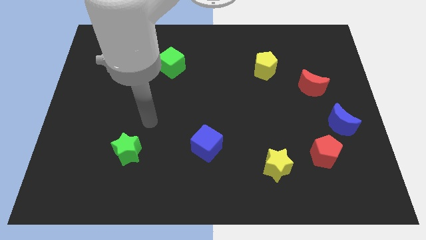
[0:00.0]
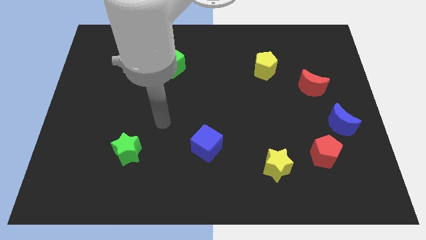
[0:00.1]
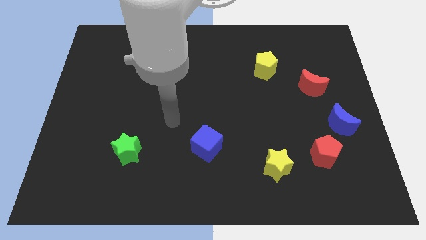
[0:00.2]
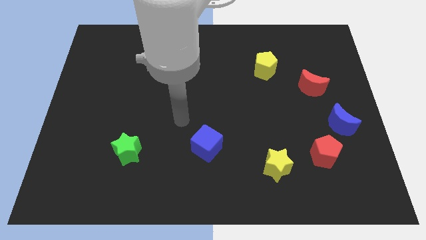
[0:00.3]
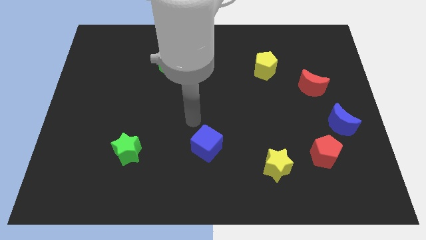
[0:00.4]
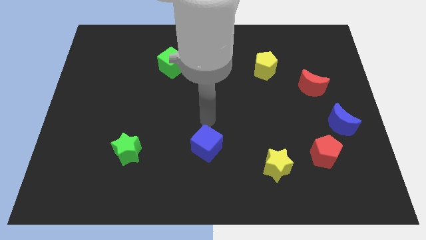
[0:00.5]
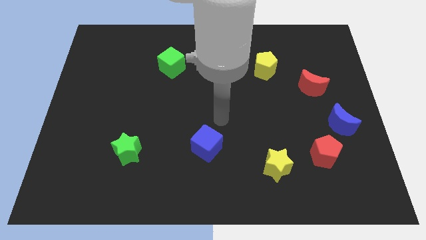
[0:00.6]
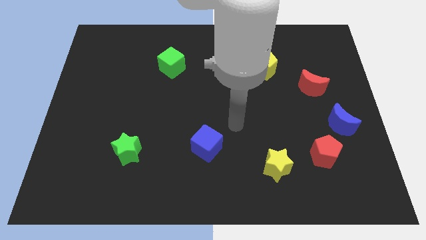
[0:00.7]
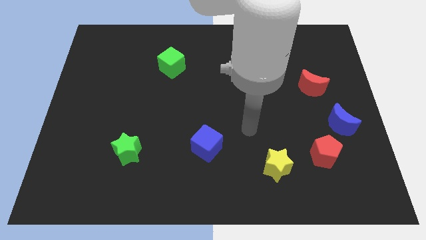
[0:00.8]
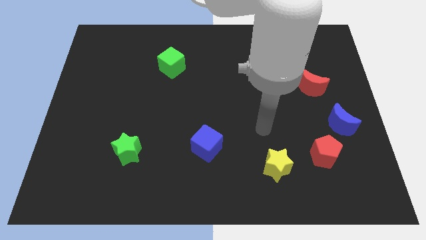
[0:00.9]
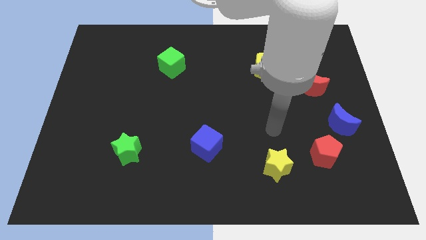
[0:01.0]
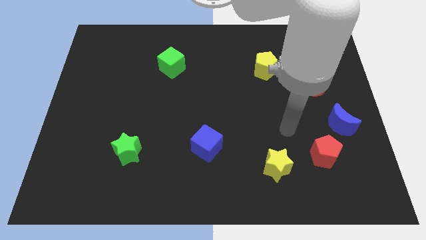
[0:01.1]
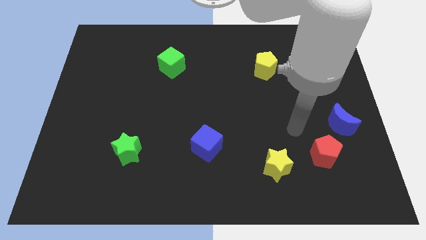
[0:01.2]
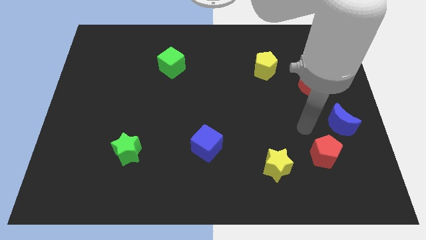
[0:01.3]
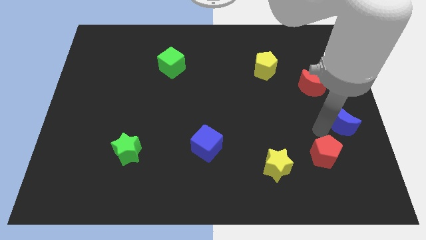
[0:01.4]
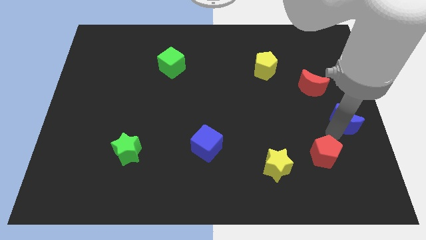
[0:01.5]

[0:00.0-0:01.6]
separate the red pentagon from the blue moon

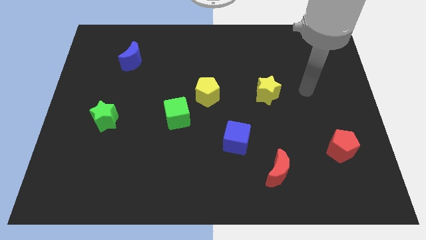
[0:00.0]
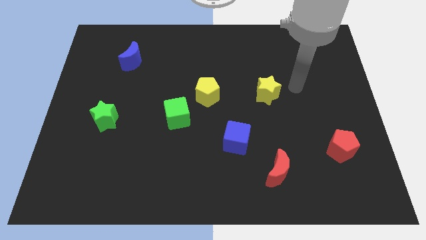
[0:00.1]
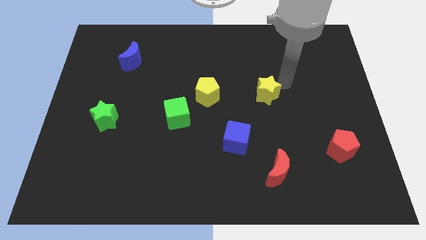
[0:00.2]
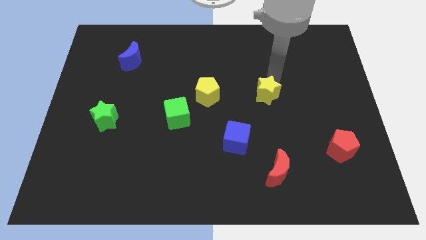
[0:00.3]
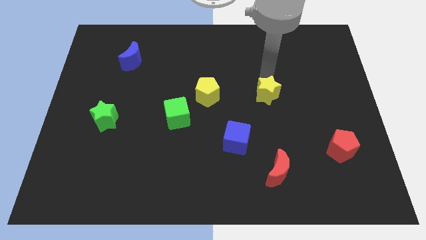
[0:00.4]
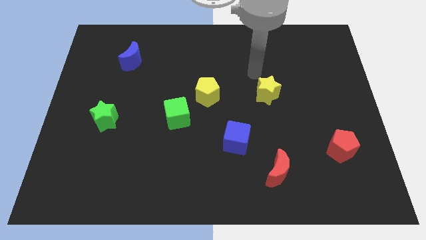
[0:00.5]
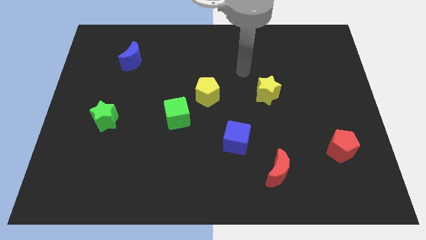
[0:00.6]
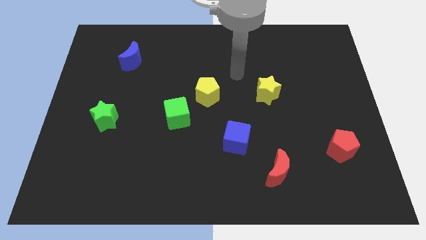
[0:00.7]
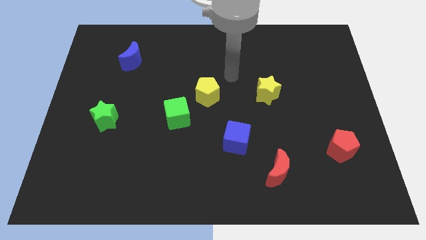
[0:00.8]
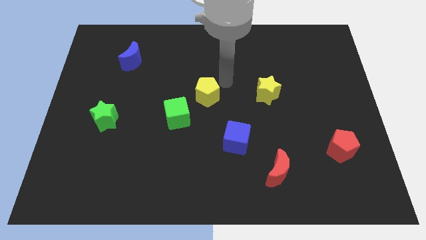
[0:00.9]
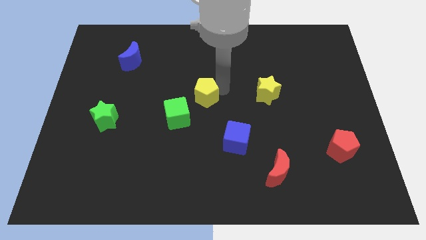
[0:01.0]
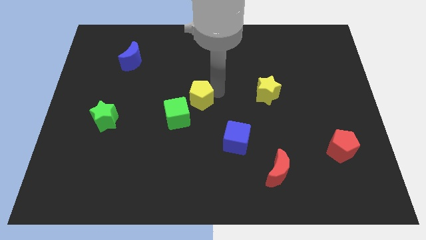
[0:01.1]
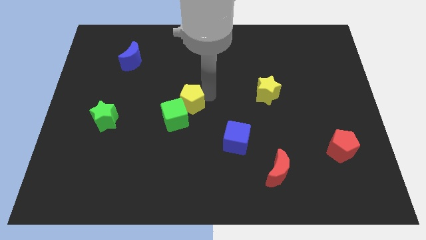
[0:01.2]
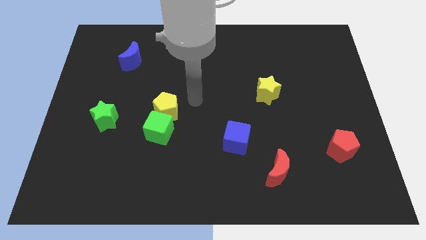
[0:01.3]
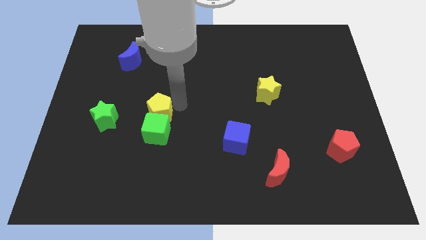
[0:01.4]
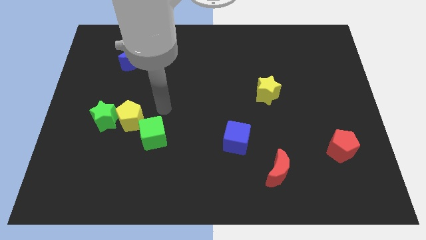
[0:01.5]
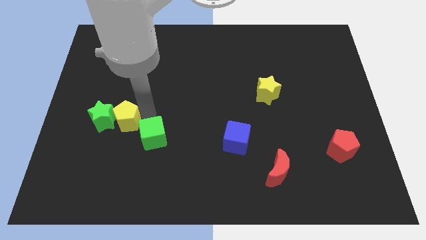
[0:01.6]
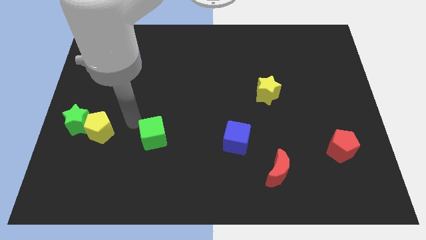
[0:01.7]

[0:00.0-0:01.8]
separate the green cube from the yellow pentagon

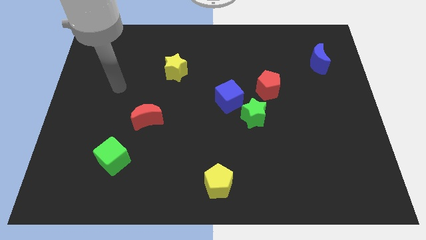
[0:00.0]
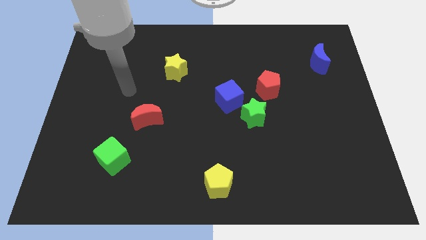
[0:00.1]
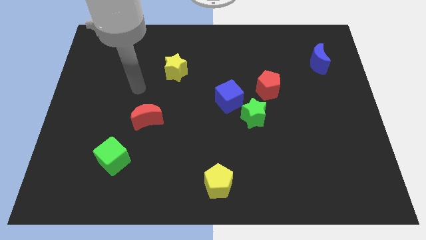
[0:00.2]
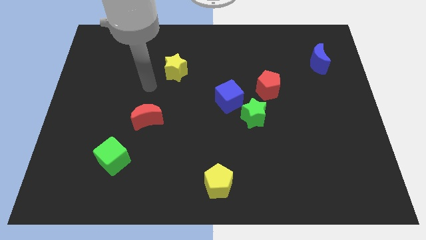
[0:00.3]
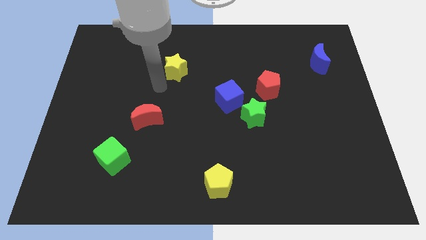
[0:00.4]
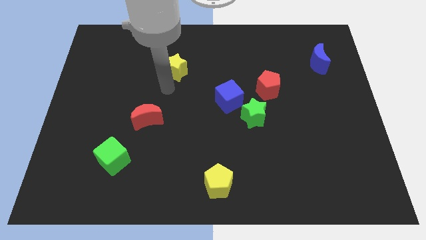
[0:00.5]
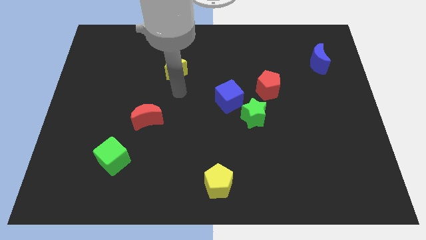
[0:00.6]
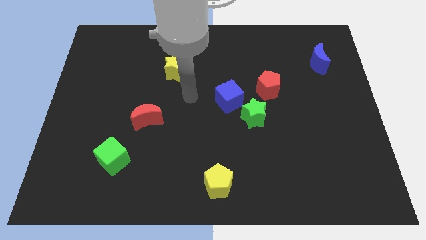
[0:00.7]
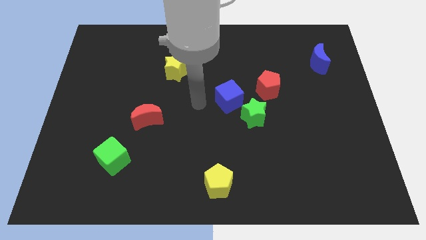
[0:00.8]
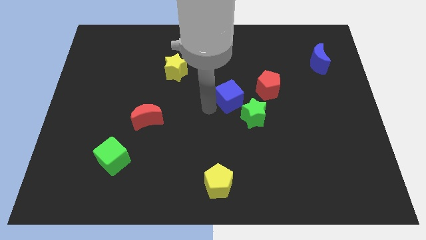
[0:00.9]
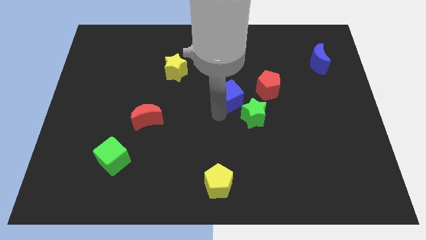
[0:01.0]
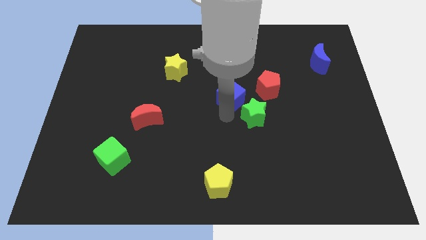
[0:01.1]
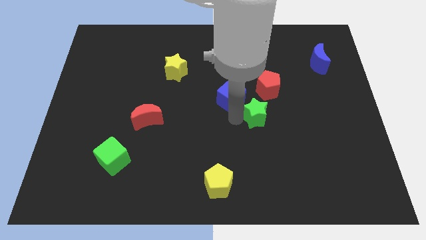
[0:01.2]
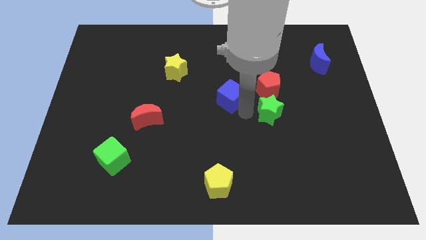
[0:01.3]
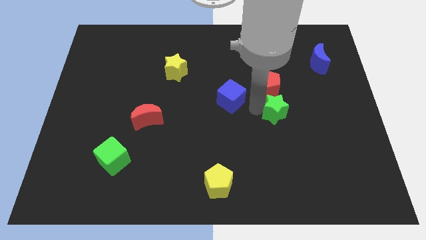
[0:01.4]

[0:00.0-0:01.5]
move the blue cube away from the green star

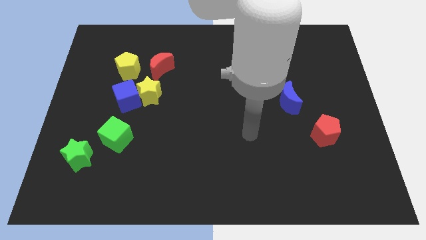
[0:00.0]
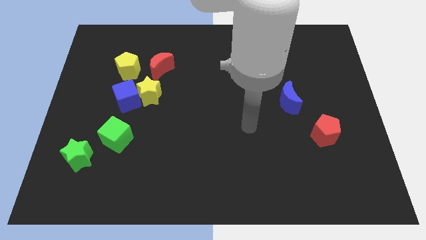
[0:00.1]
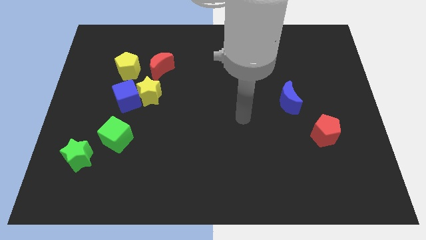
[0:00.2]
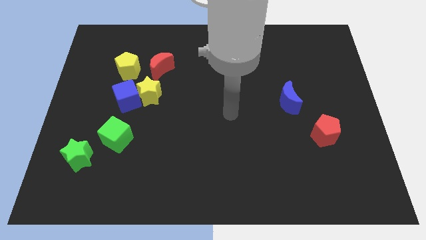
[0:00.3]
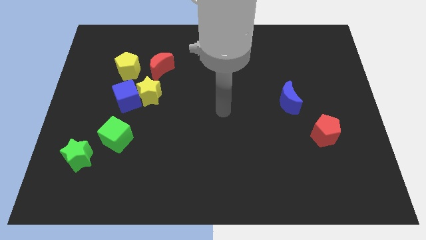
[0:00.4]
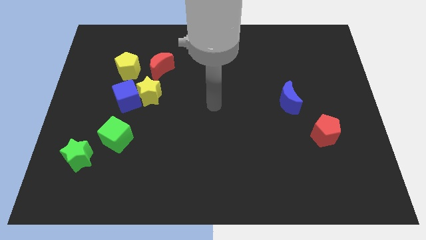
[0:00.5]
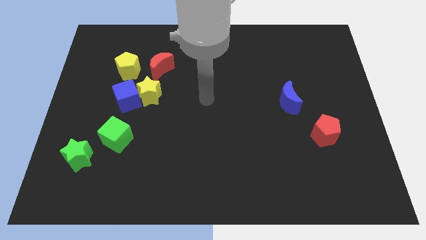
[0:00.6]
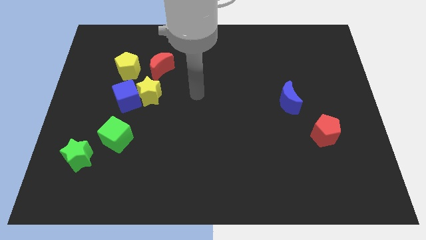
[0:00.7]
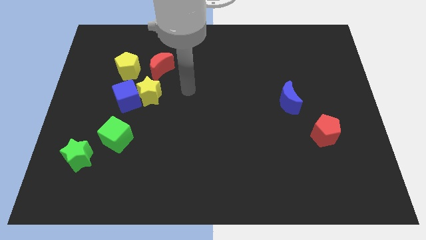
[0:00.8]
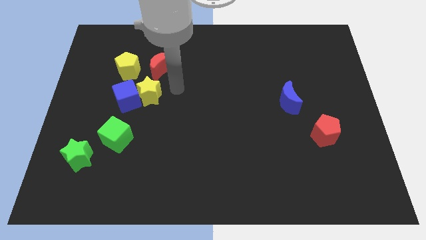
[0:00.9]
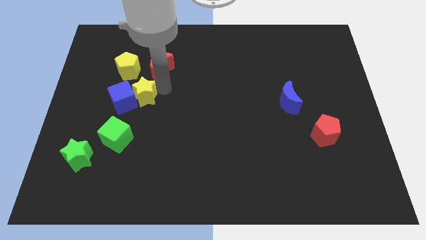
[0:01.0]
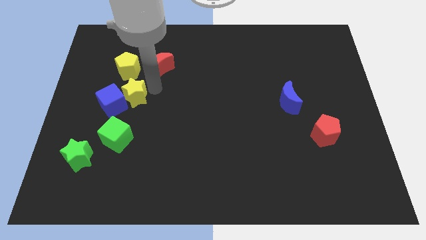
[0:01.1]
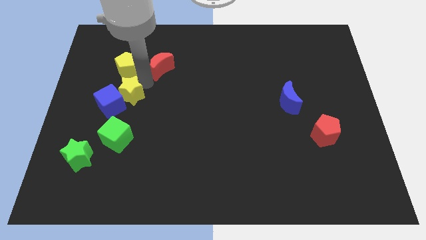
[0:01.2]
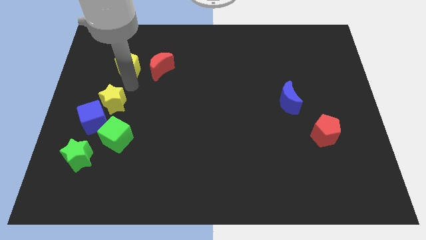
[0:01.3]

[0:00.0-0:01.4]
separate the blue cube from the yellow star and yellow pentagon

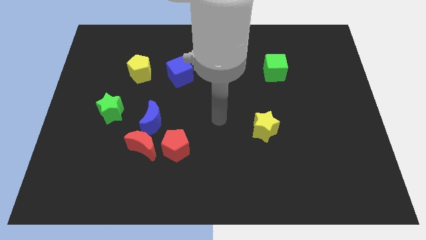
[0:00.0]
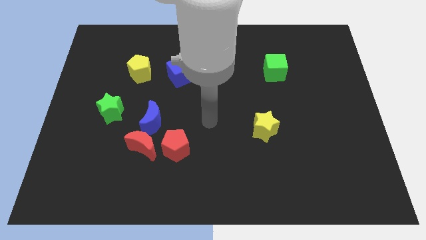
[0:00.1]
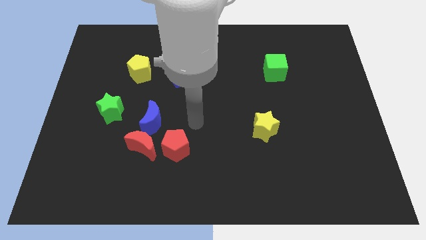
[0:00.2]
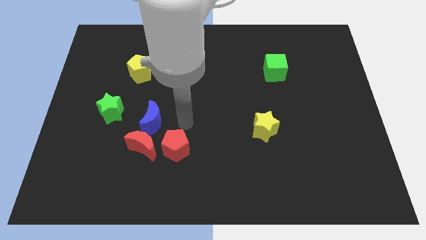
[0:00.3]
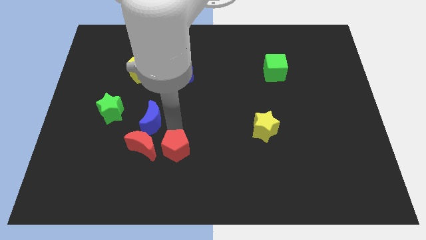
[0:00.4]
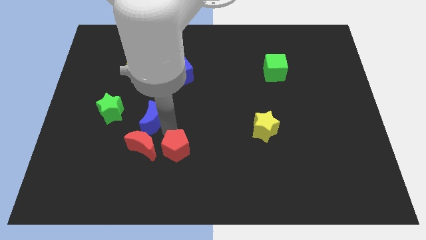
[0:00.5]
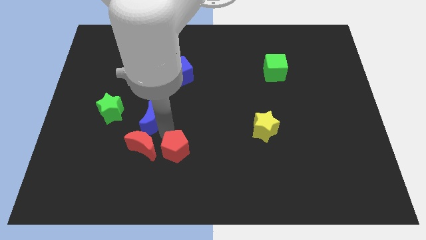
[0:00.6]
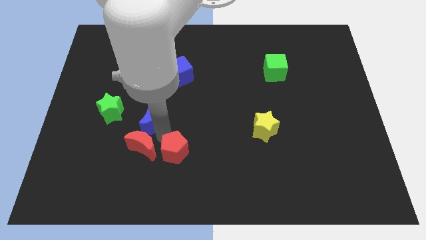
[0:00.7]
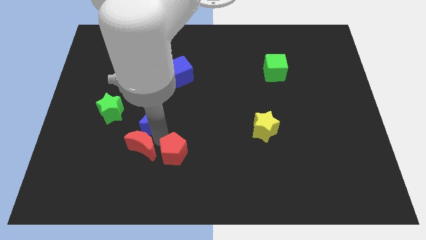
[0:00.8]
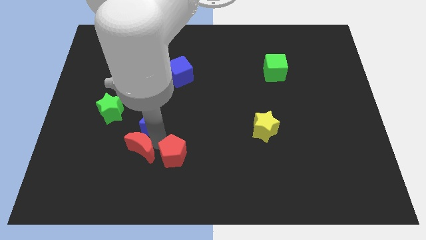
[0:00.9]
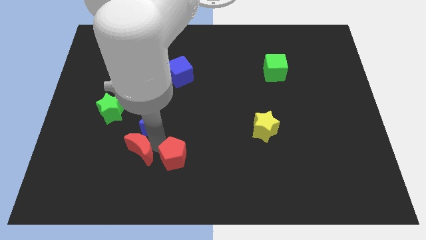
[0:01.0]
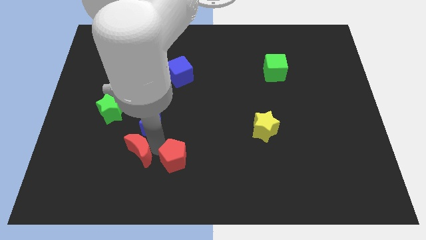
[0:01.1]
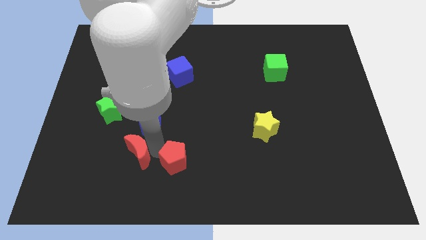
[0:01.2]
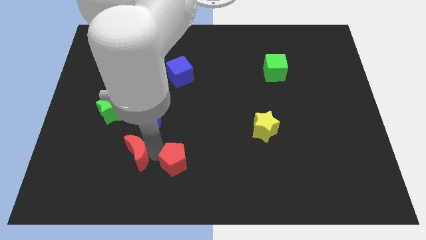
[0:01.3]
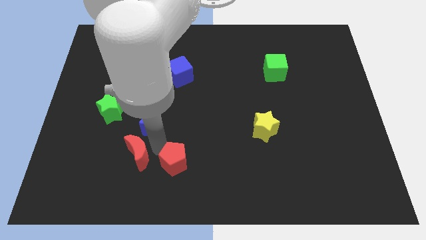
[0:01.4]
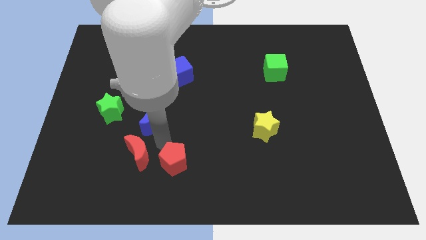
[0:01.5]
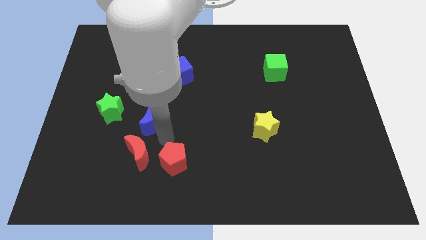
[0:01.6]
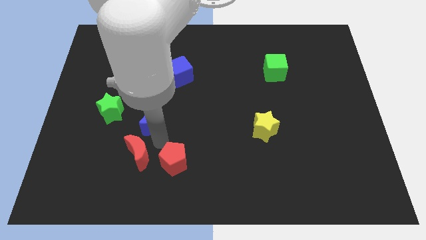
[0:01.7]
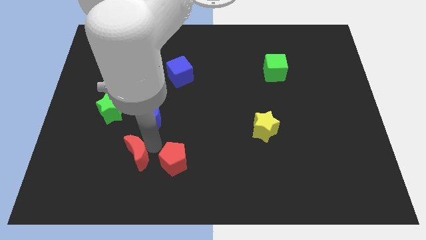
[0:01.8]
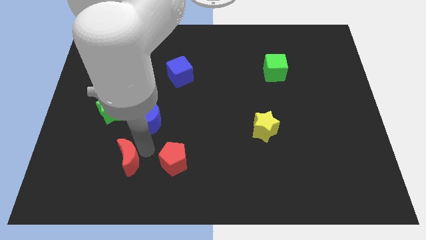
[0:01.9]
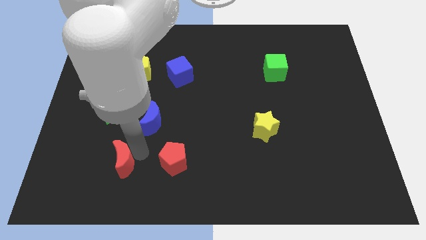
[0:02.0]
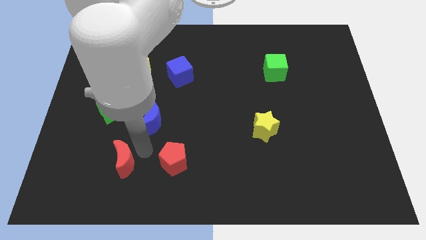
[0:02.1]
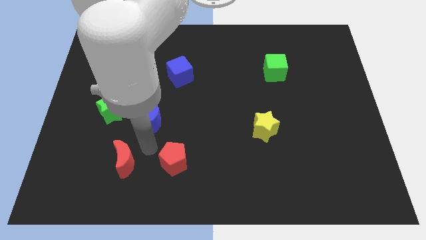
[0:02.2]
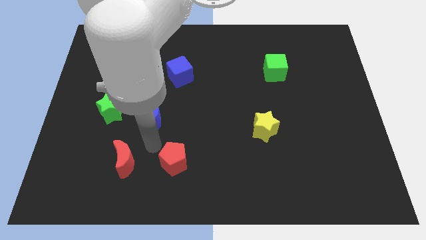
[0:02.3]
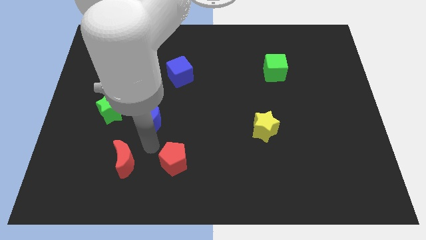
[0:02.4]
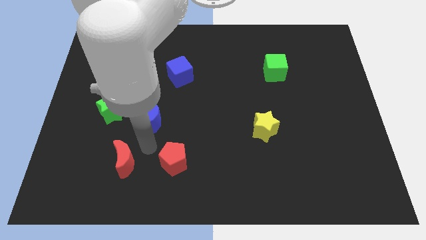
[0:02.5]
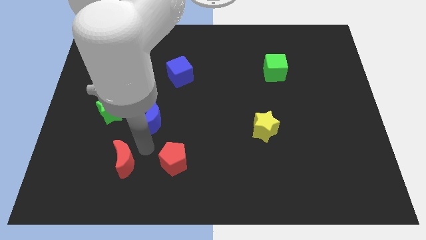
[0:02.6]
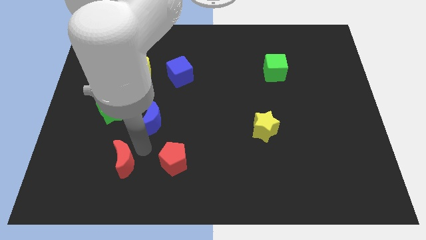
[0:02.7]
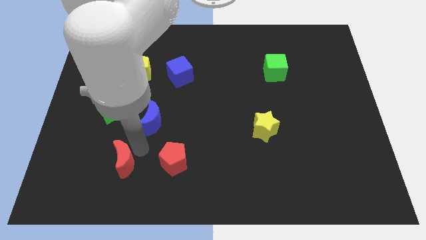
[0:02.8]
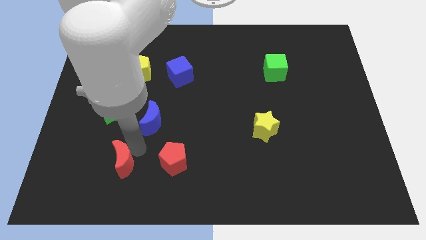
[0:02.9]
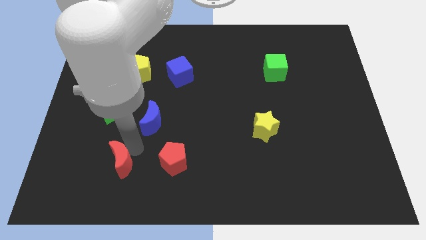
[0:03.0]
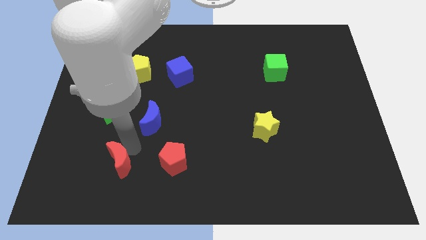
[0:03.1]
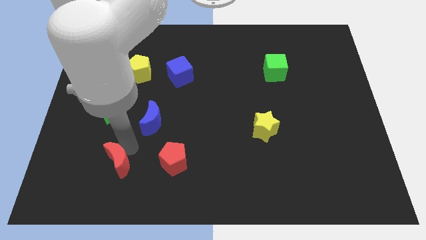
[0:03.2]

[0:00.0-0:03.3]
separate the red moon from the blue moon and red pentagon
